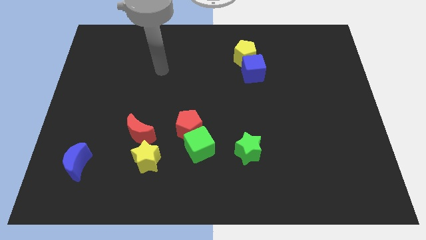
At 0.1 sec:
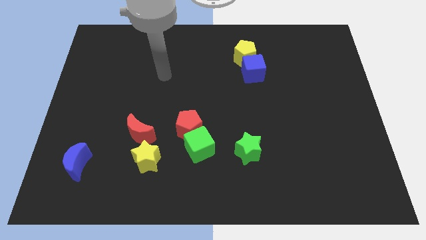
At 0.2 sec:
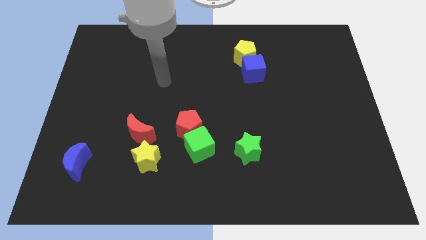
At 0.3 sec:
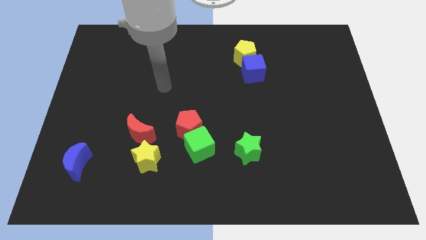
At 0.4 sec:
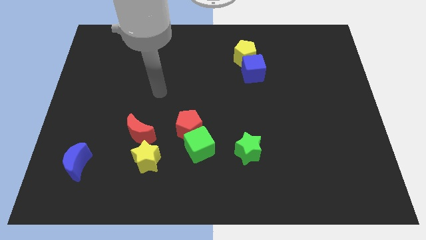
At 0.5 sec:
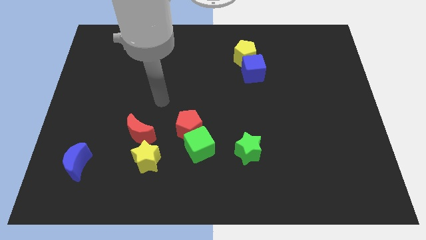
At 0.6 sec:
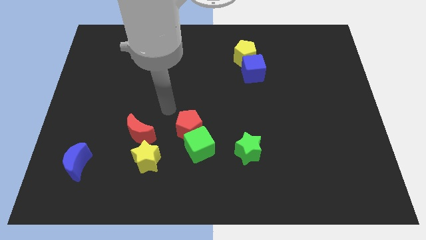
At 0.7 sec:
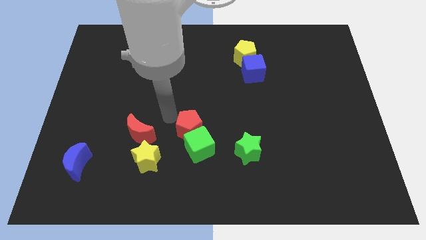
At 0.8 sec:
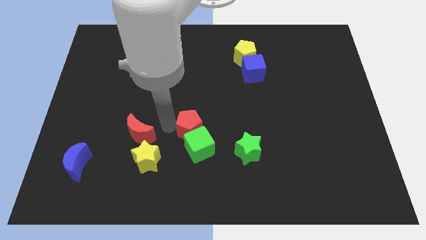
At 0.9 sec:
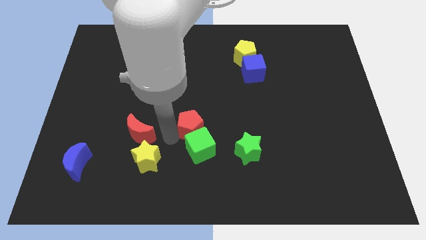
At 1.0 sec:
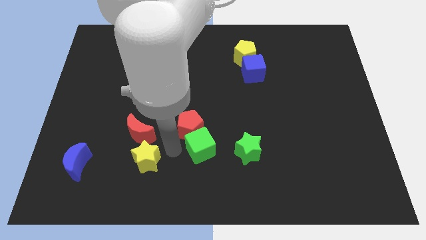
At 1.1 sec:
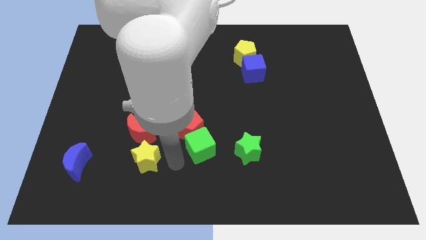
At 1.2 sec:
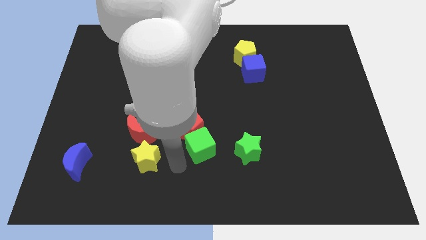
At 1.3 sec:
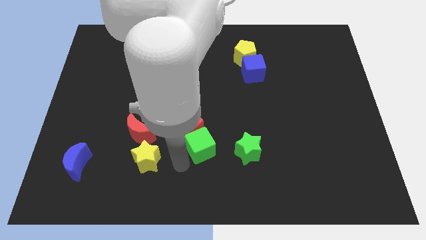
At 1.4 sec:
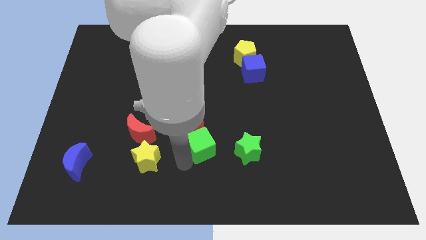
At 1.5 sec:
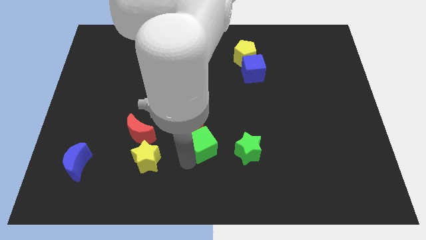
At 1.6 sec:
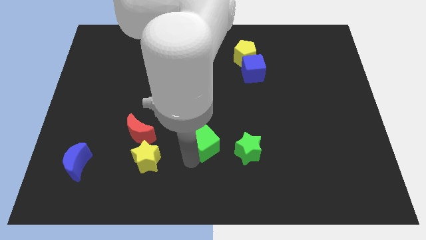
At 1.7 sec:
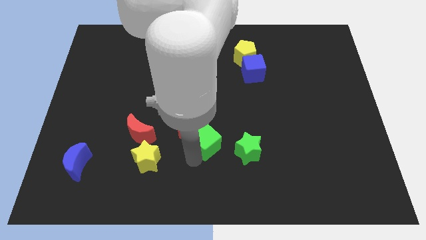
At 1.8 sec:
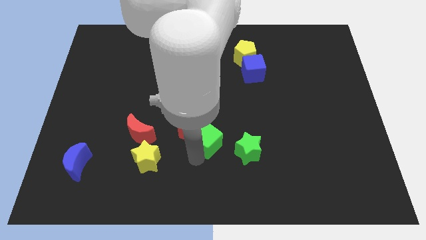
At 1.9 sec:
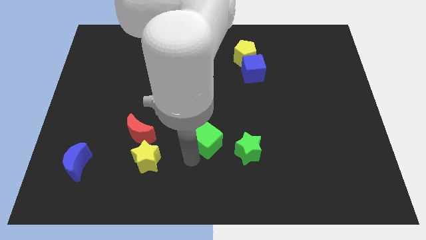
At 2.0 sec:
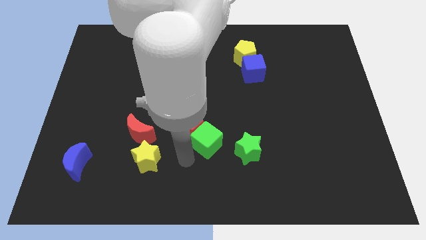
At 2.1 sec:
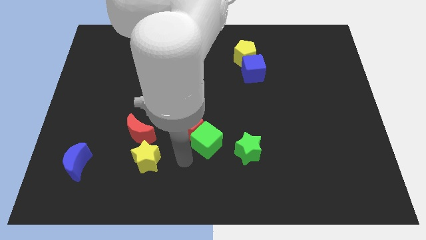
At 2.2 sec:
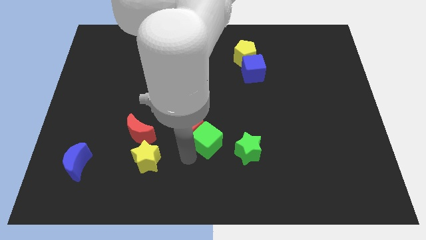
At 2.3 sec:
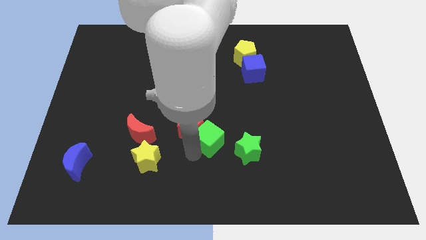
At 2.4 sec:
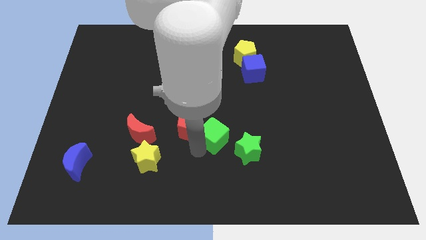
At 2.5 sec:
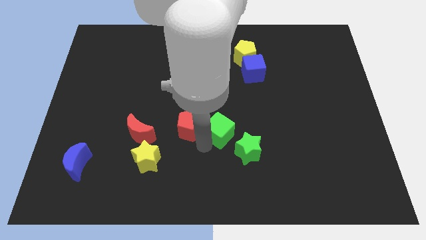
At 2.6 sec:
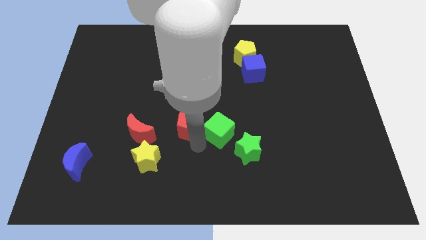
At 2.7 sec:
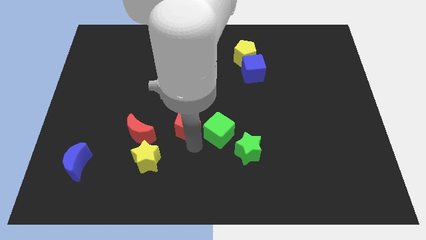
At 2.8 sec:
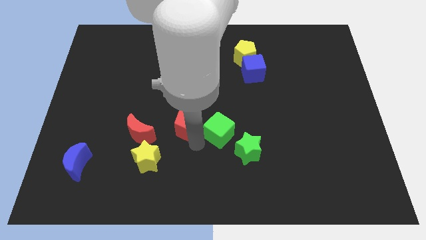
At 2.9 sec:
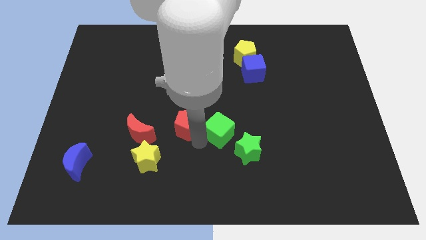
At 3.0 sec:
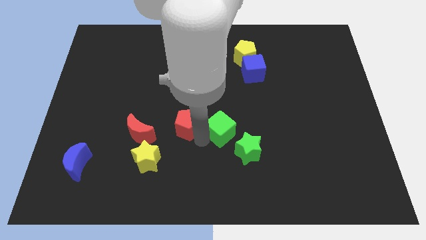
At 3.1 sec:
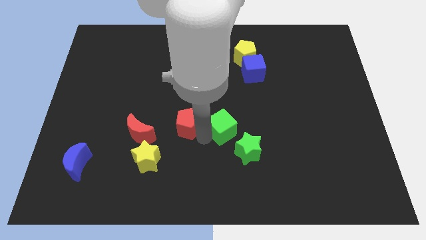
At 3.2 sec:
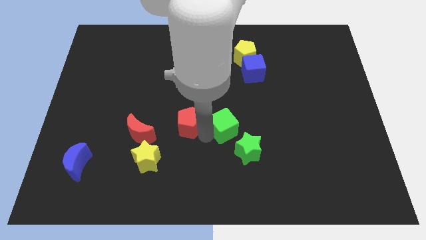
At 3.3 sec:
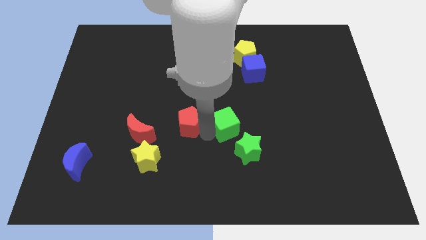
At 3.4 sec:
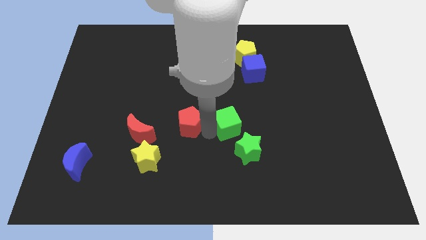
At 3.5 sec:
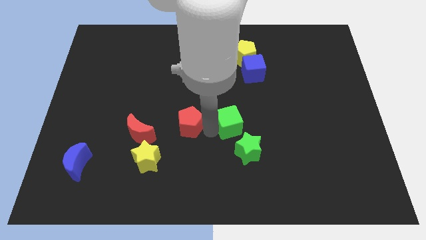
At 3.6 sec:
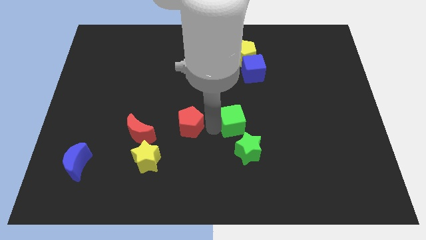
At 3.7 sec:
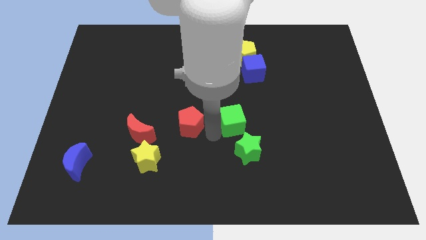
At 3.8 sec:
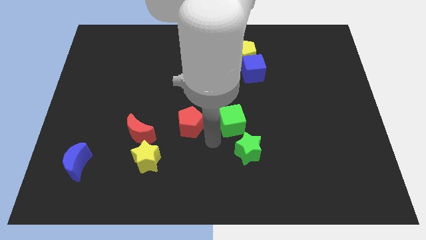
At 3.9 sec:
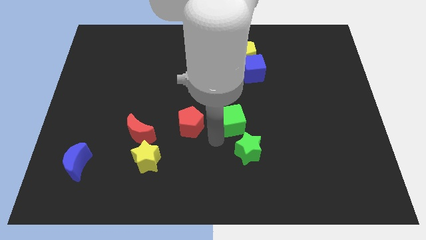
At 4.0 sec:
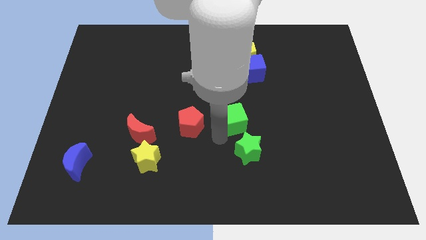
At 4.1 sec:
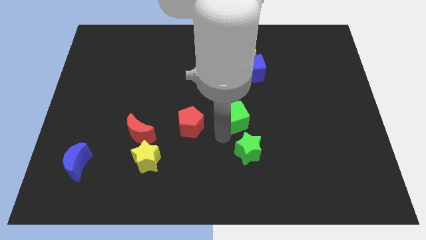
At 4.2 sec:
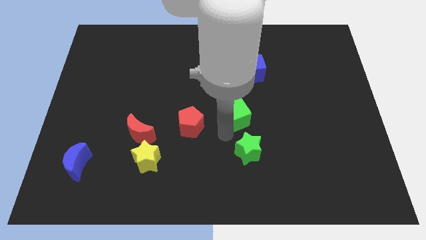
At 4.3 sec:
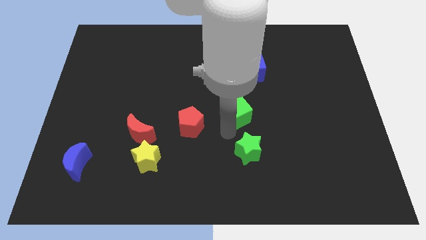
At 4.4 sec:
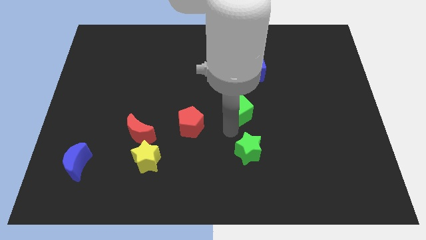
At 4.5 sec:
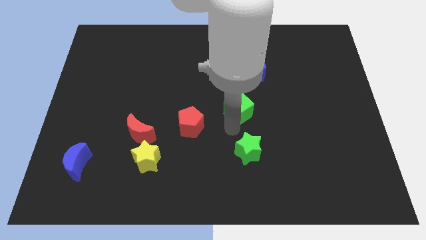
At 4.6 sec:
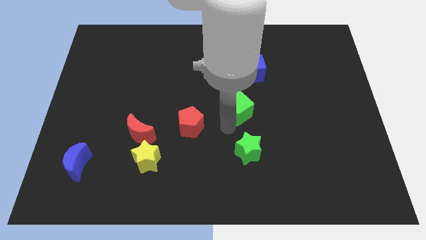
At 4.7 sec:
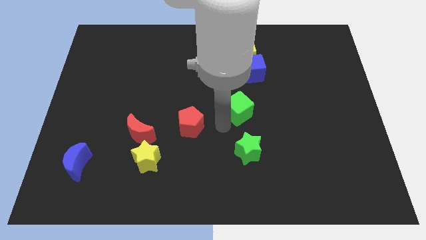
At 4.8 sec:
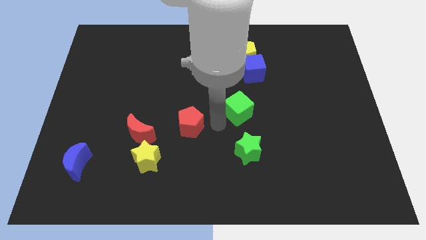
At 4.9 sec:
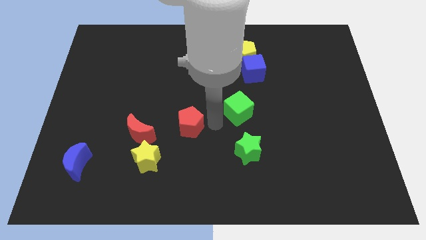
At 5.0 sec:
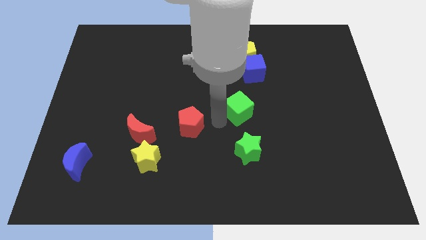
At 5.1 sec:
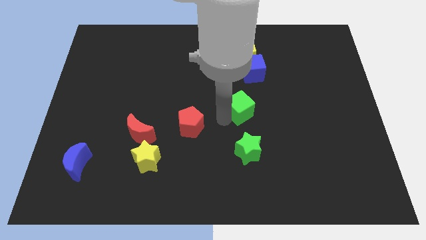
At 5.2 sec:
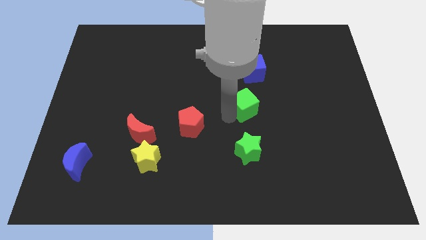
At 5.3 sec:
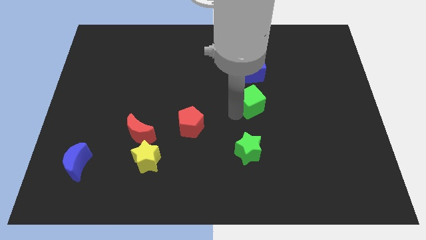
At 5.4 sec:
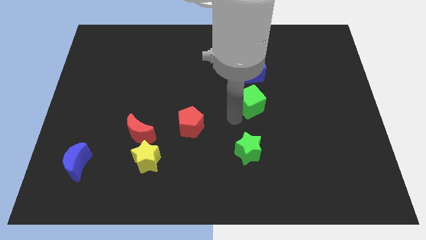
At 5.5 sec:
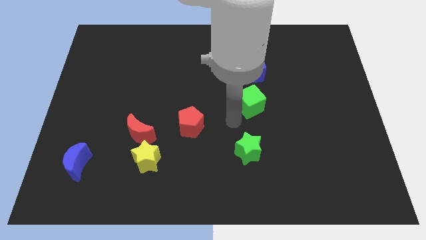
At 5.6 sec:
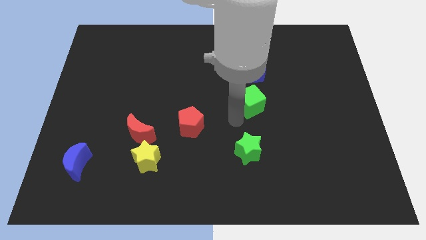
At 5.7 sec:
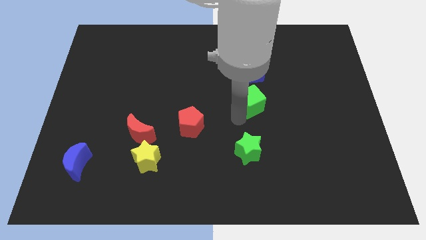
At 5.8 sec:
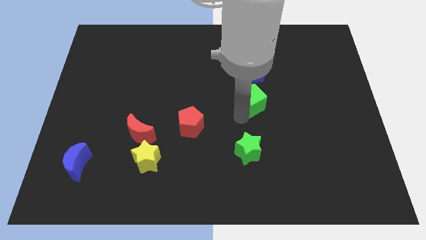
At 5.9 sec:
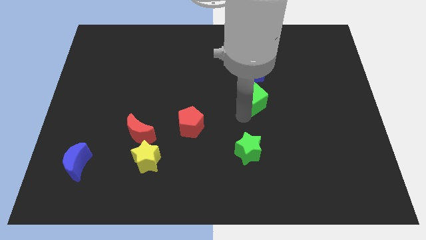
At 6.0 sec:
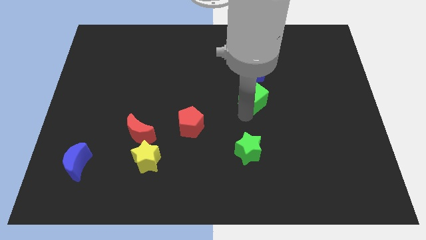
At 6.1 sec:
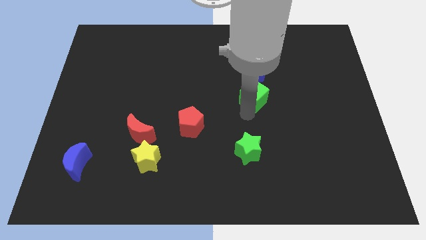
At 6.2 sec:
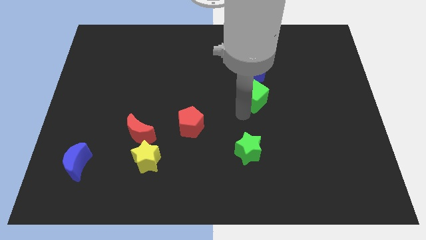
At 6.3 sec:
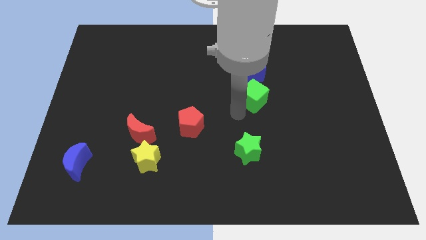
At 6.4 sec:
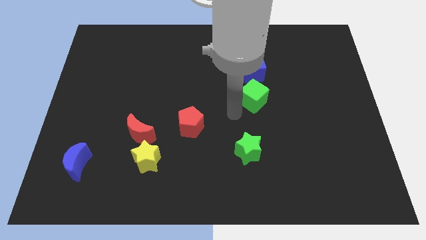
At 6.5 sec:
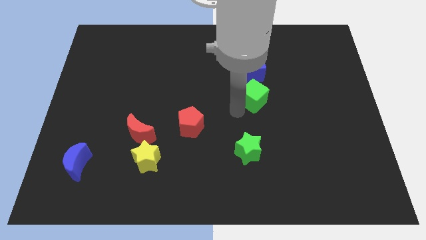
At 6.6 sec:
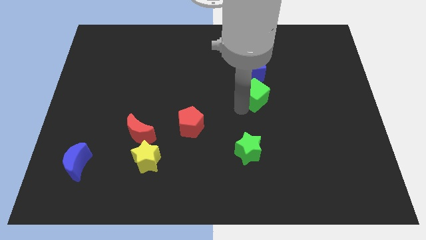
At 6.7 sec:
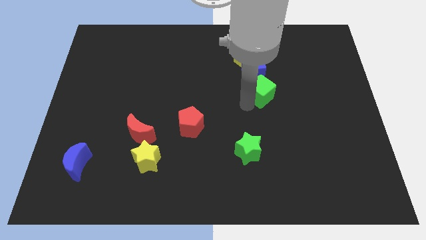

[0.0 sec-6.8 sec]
move the green cube up and to the right

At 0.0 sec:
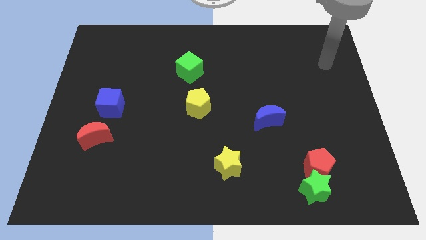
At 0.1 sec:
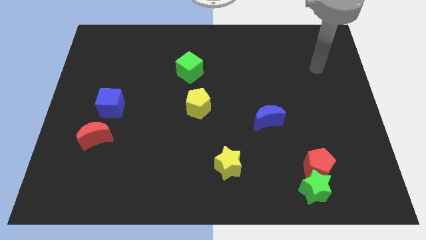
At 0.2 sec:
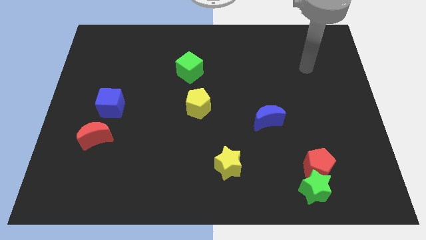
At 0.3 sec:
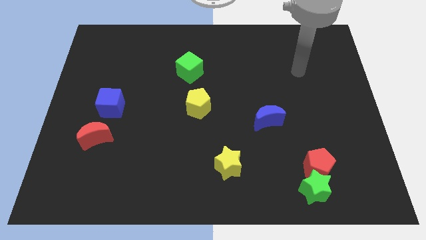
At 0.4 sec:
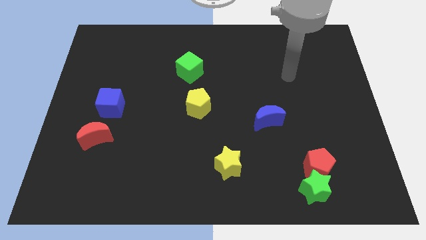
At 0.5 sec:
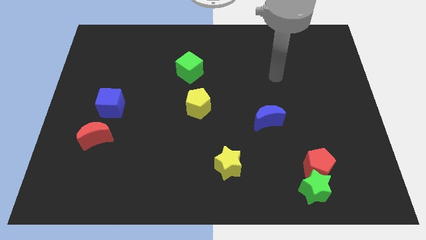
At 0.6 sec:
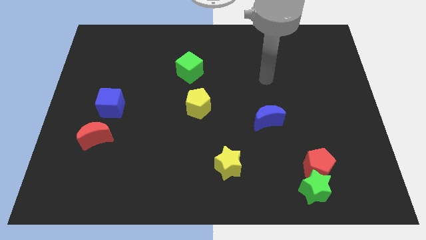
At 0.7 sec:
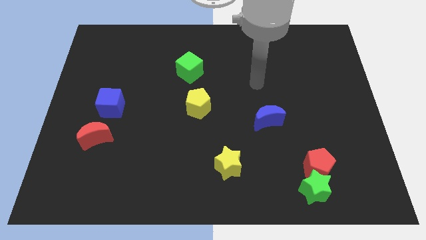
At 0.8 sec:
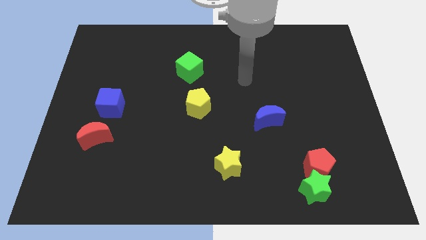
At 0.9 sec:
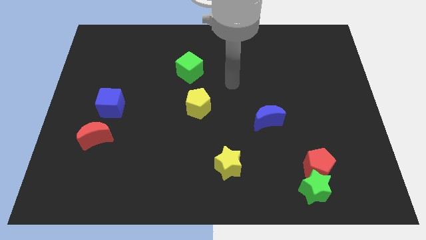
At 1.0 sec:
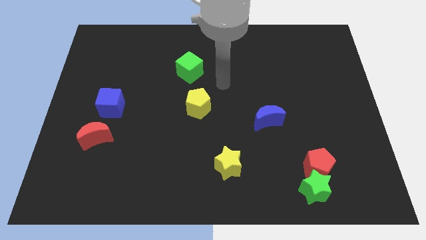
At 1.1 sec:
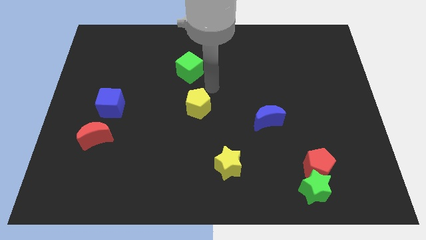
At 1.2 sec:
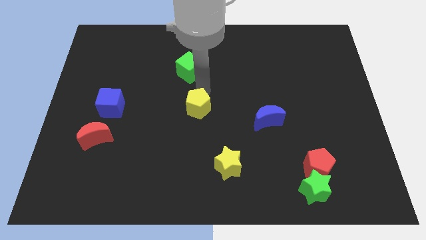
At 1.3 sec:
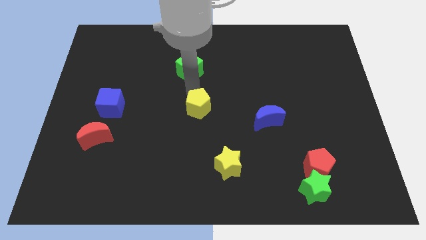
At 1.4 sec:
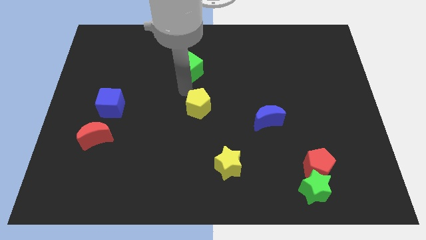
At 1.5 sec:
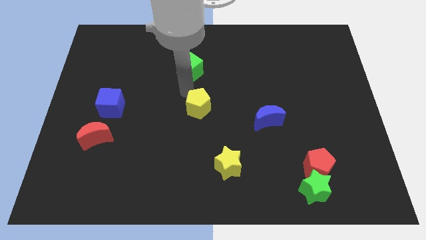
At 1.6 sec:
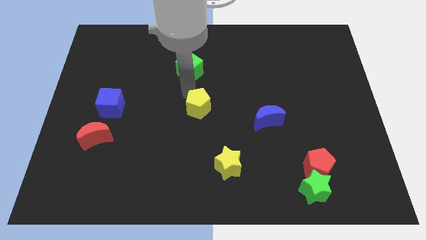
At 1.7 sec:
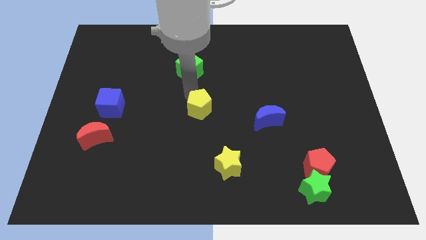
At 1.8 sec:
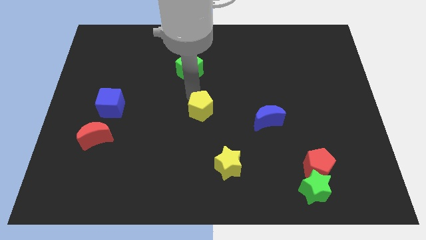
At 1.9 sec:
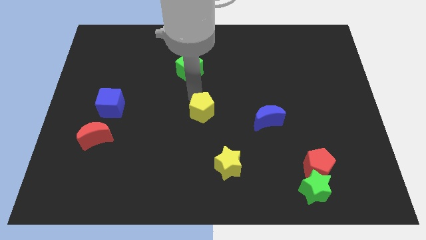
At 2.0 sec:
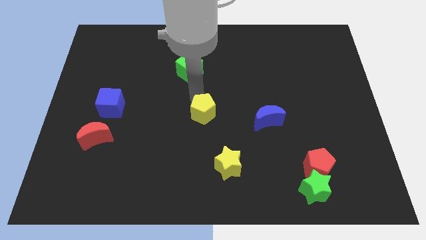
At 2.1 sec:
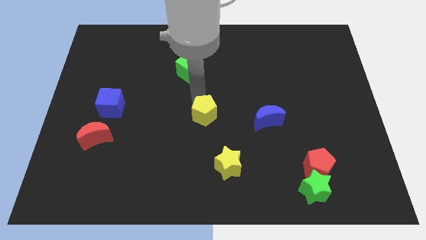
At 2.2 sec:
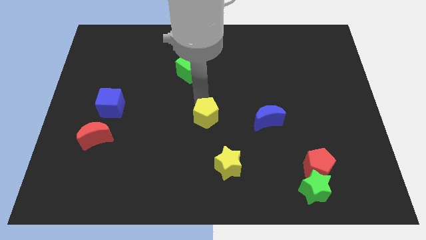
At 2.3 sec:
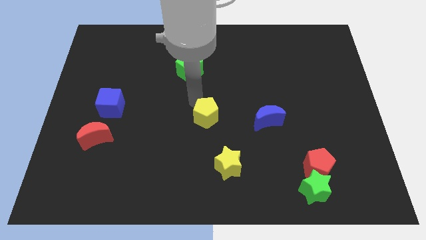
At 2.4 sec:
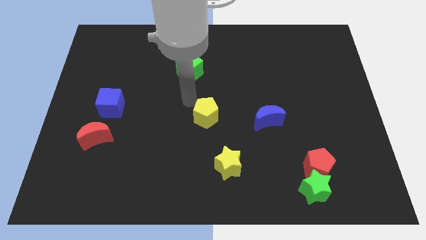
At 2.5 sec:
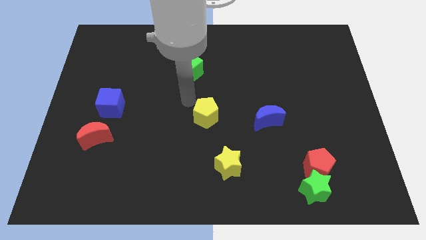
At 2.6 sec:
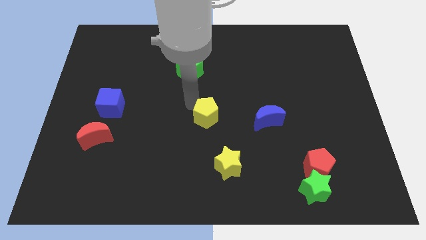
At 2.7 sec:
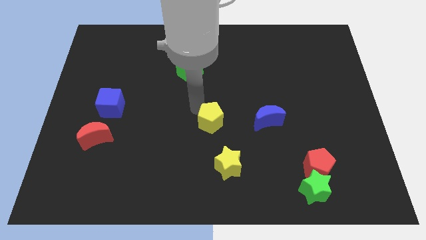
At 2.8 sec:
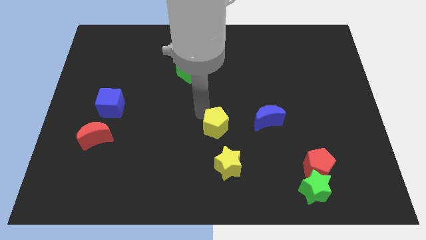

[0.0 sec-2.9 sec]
slightly push the yellow pentagon down and to the right
